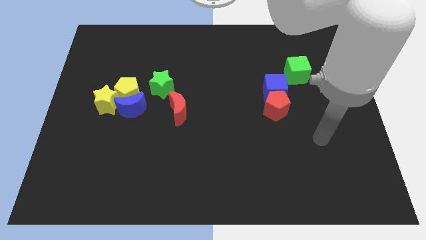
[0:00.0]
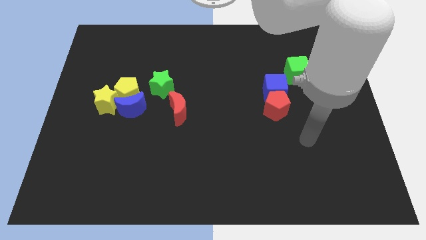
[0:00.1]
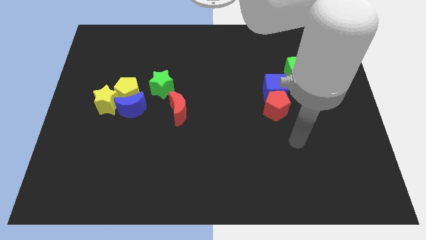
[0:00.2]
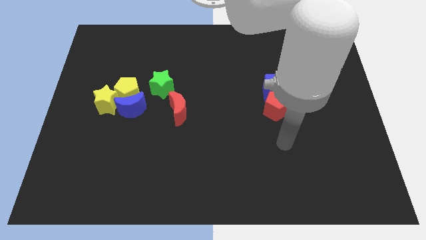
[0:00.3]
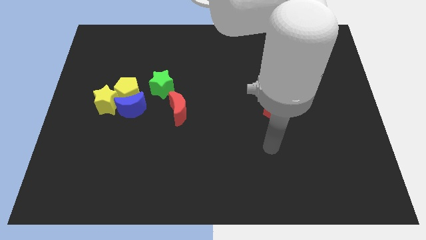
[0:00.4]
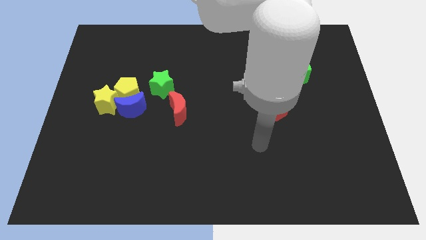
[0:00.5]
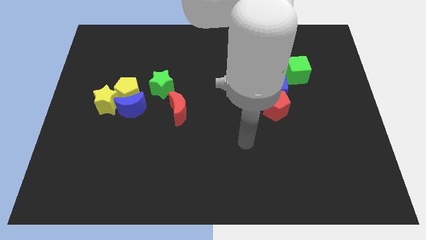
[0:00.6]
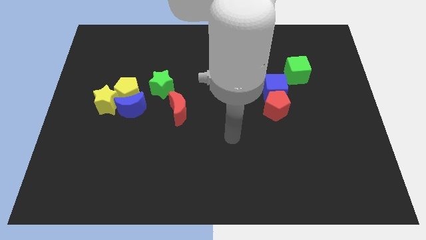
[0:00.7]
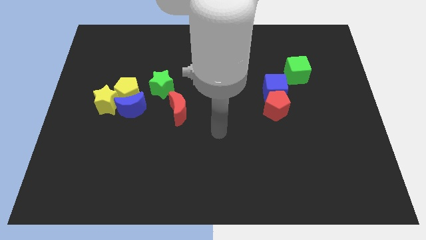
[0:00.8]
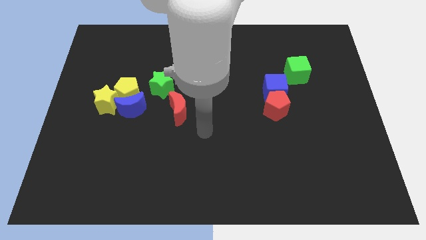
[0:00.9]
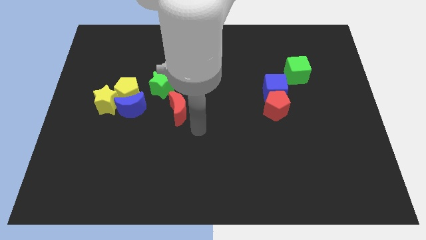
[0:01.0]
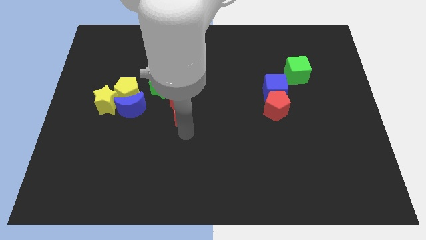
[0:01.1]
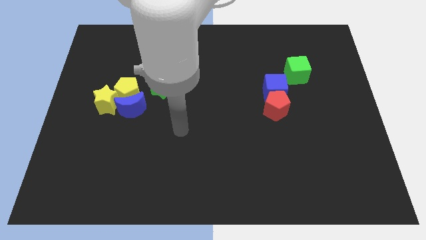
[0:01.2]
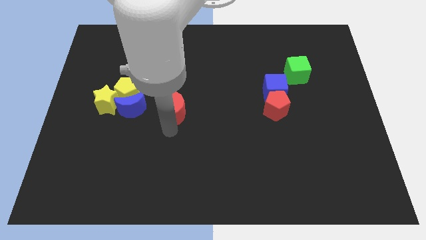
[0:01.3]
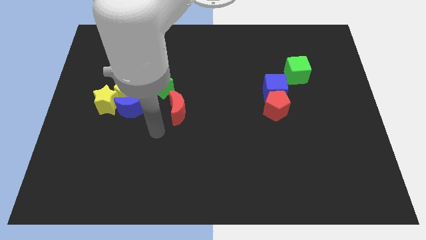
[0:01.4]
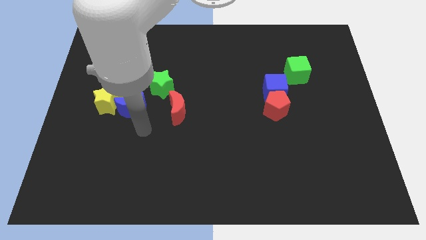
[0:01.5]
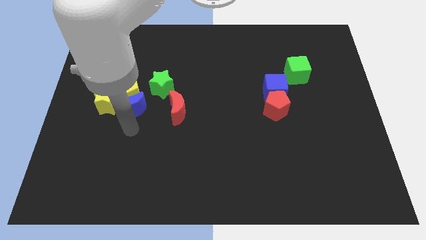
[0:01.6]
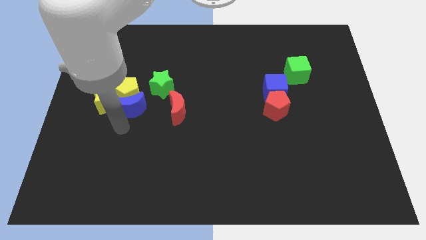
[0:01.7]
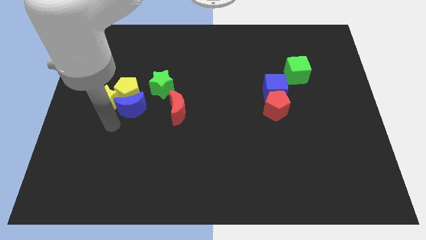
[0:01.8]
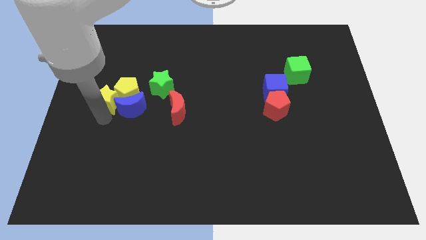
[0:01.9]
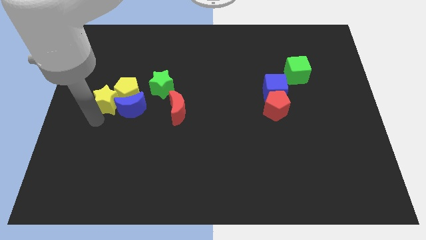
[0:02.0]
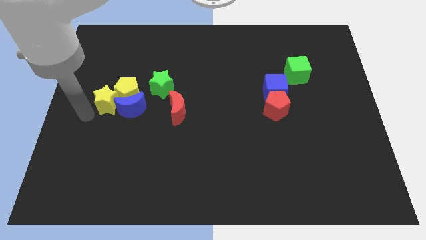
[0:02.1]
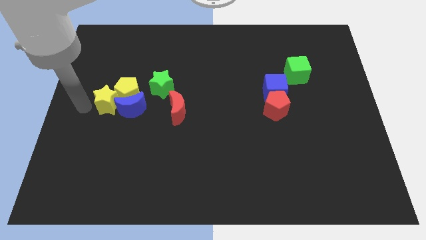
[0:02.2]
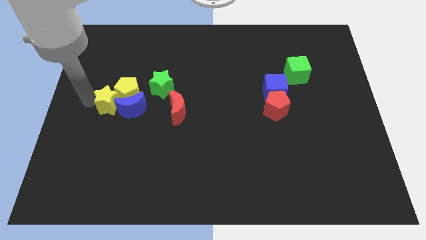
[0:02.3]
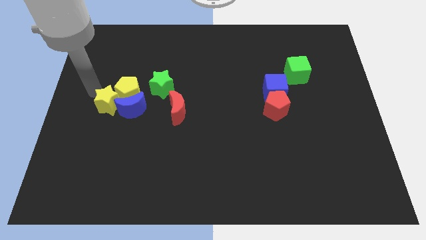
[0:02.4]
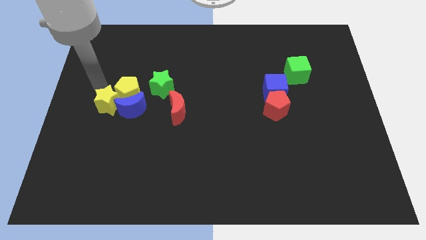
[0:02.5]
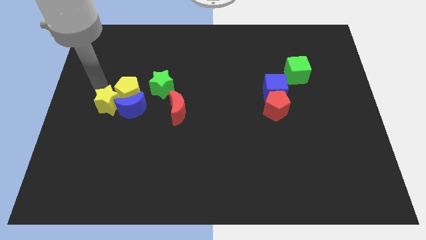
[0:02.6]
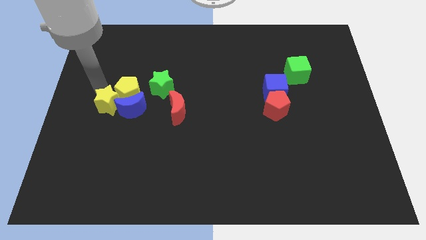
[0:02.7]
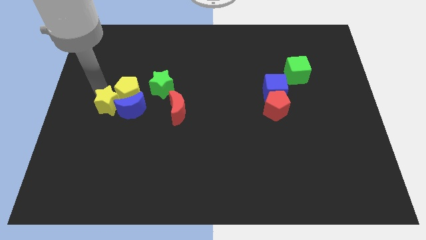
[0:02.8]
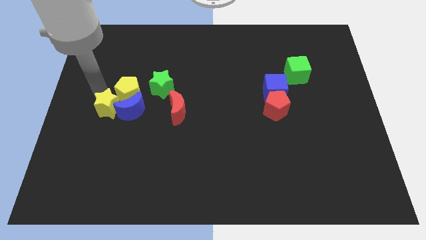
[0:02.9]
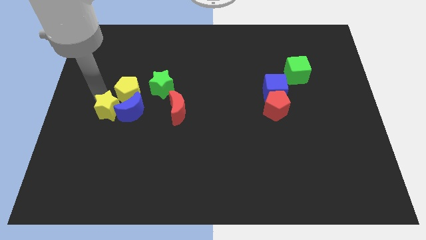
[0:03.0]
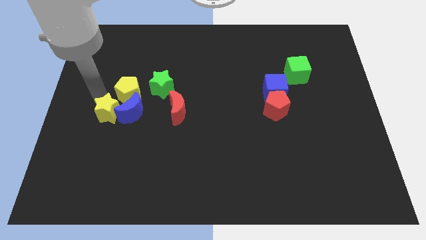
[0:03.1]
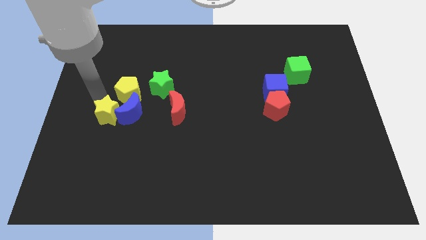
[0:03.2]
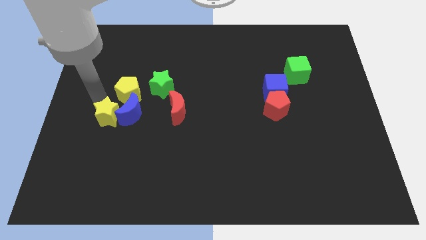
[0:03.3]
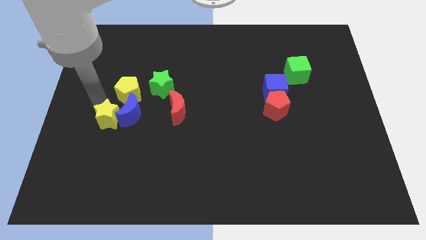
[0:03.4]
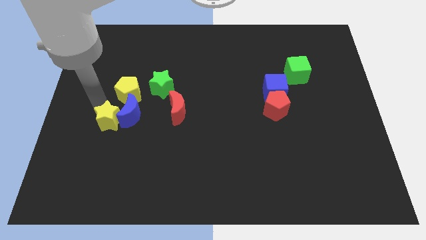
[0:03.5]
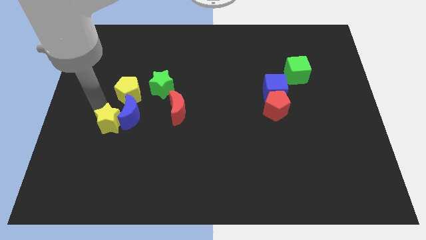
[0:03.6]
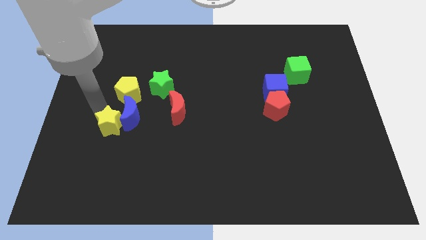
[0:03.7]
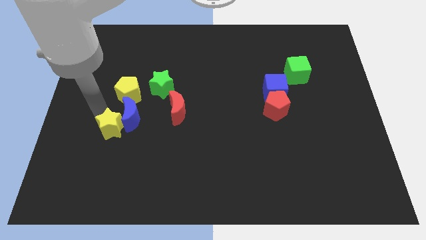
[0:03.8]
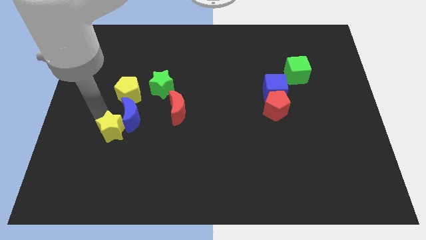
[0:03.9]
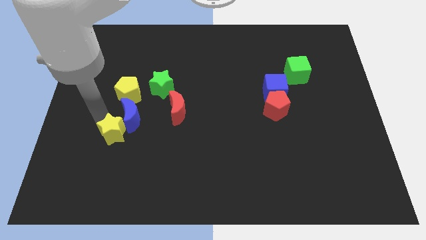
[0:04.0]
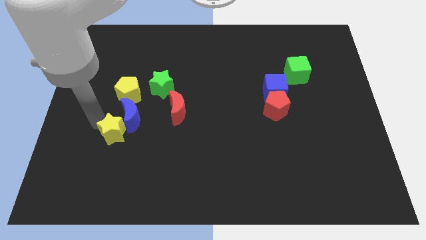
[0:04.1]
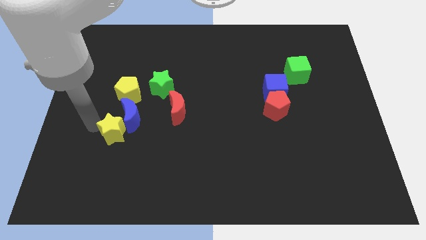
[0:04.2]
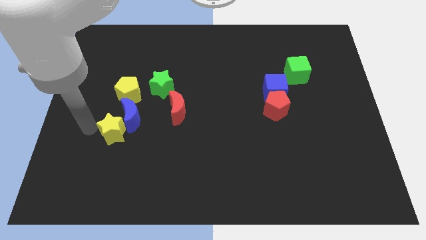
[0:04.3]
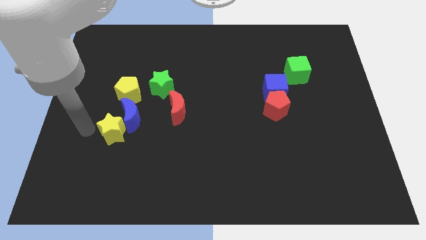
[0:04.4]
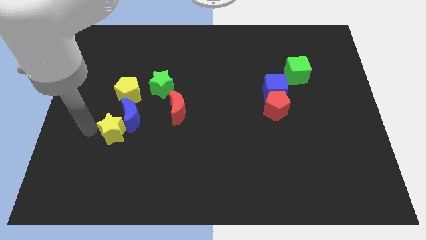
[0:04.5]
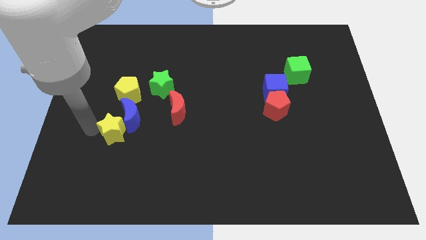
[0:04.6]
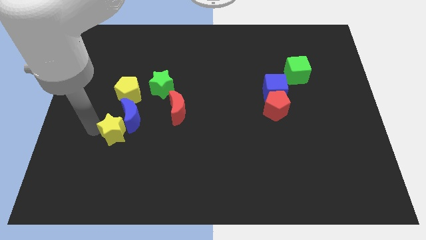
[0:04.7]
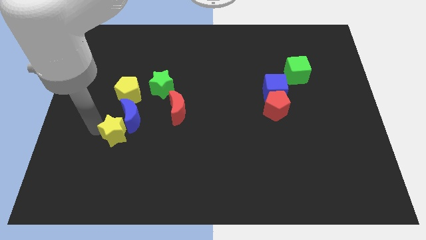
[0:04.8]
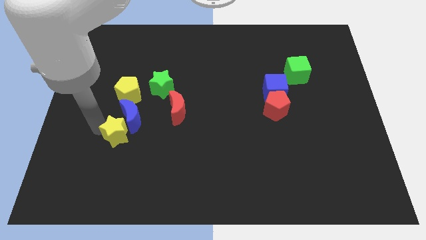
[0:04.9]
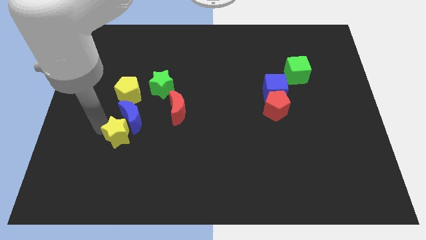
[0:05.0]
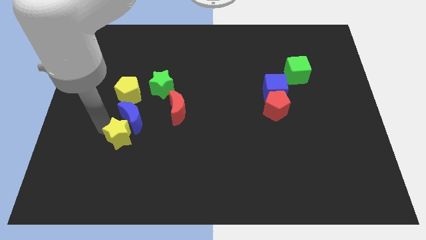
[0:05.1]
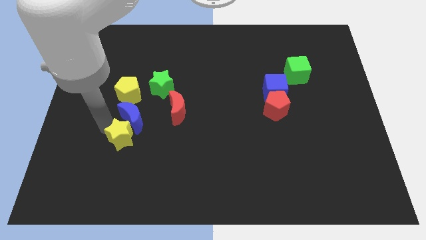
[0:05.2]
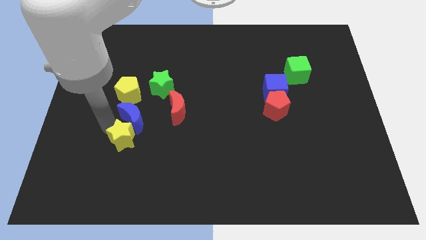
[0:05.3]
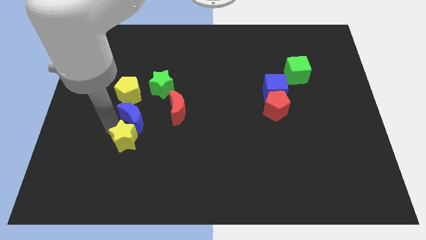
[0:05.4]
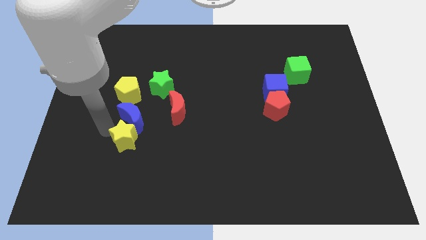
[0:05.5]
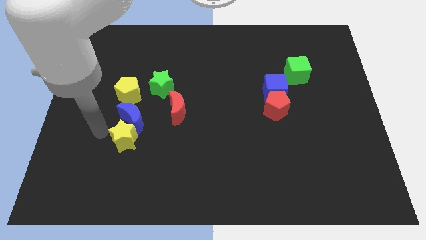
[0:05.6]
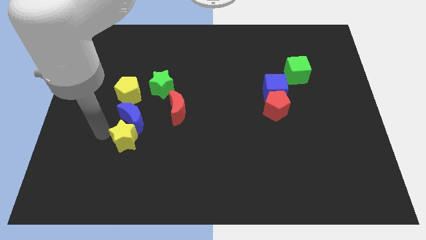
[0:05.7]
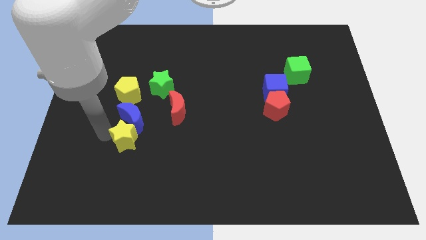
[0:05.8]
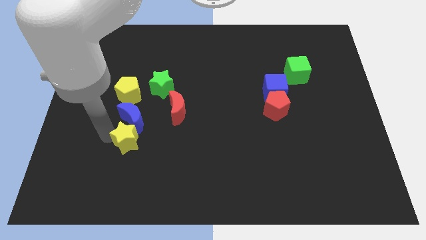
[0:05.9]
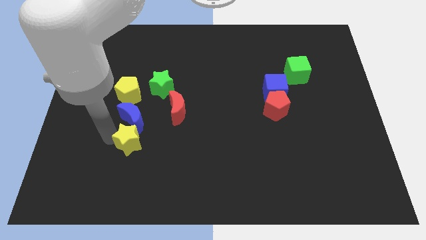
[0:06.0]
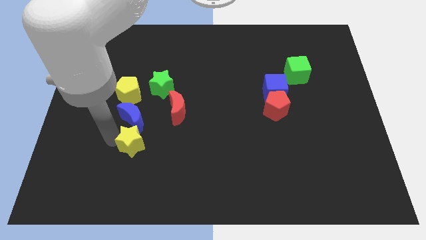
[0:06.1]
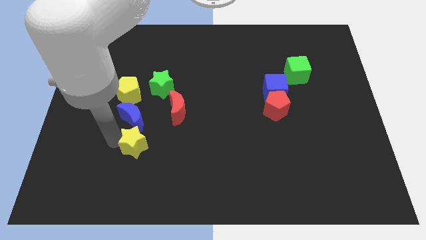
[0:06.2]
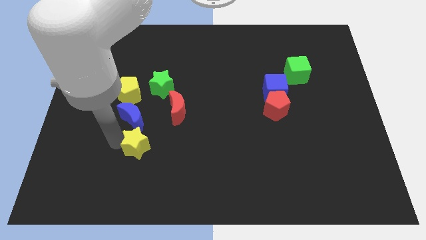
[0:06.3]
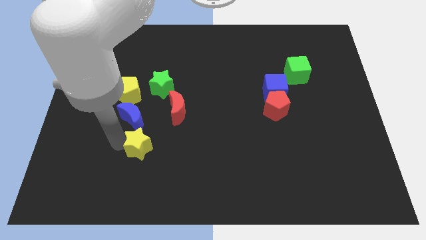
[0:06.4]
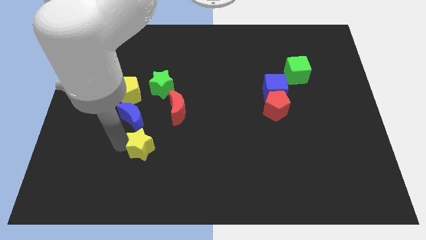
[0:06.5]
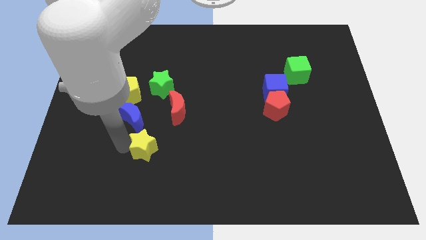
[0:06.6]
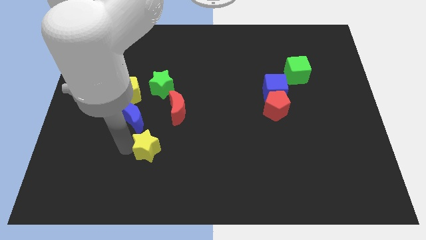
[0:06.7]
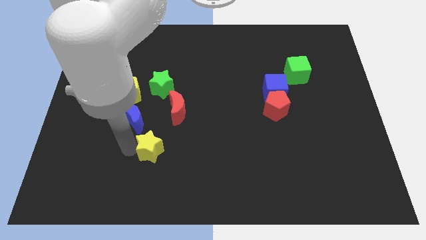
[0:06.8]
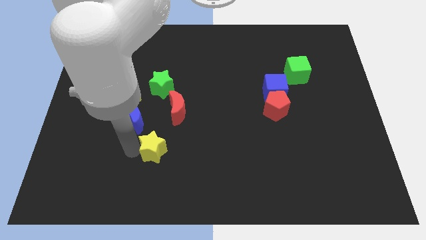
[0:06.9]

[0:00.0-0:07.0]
slide the yellow star below the red moon

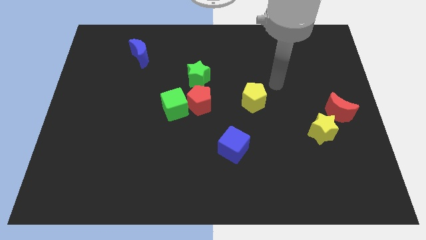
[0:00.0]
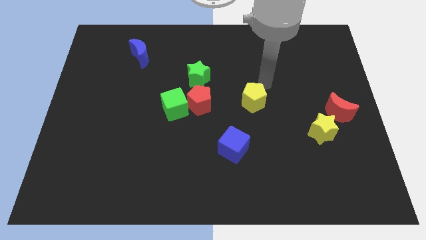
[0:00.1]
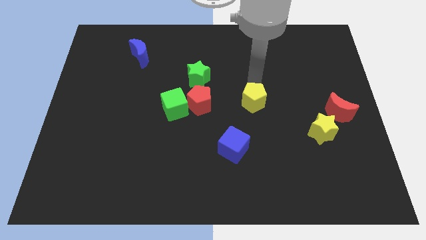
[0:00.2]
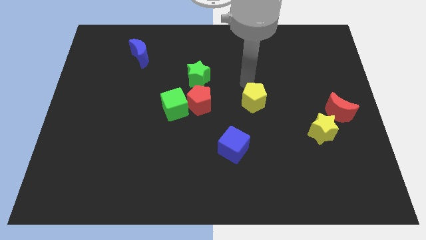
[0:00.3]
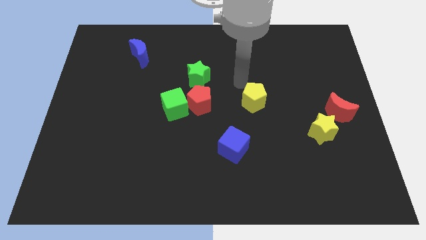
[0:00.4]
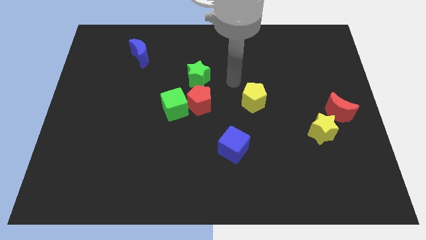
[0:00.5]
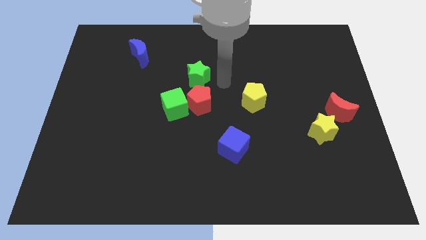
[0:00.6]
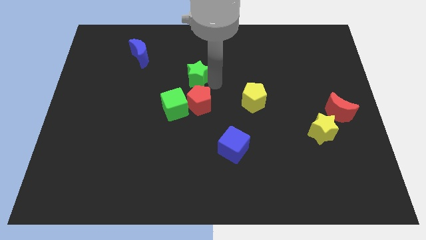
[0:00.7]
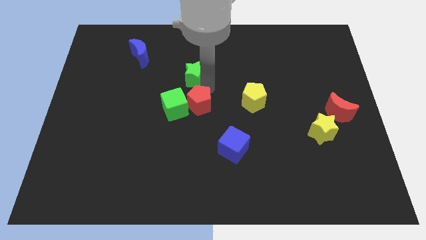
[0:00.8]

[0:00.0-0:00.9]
slide the green cube to the bottom side of the green star
